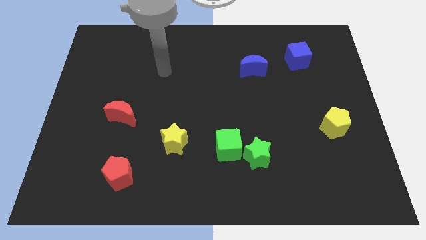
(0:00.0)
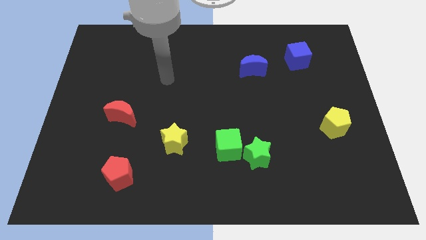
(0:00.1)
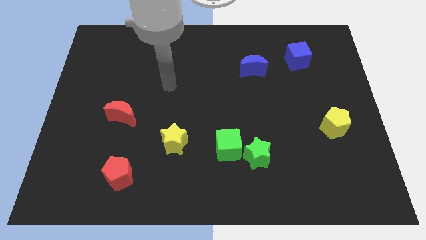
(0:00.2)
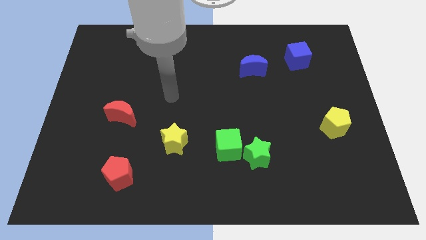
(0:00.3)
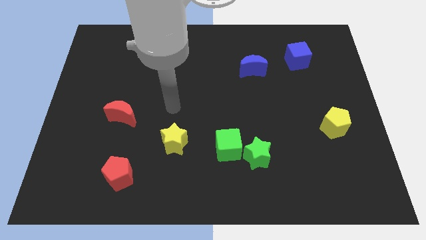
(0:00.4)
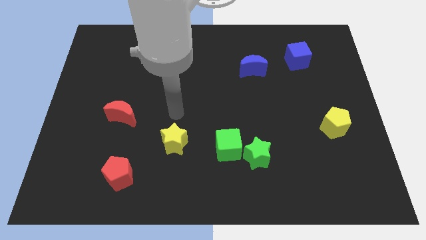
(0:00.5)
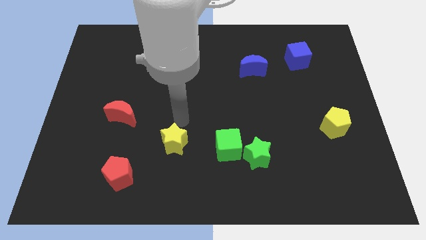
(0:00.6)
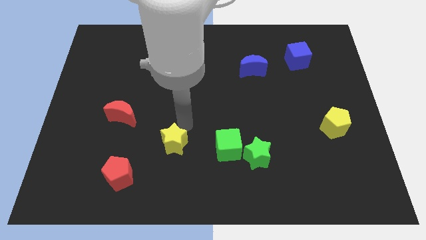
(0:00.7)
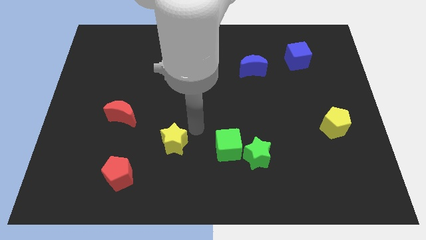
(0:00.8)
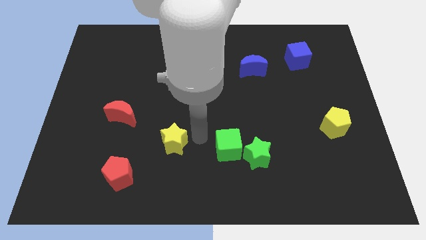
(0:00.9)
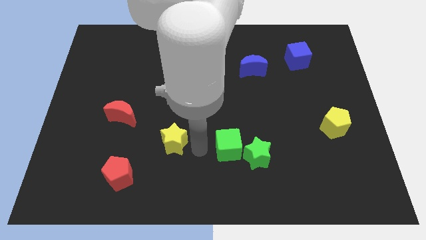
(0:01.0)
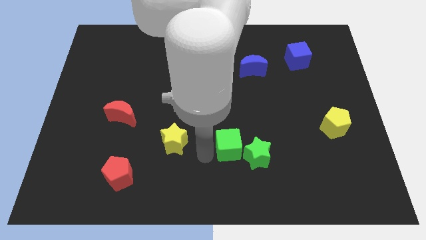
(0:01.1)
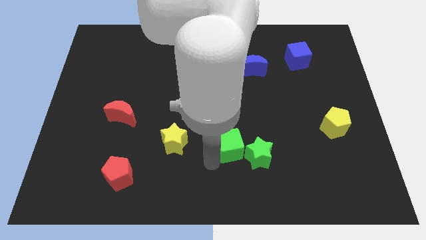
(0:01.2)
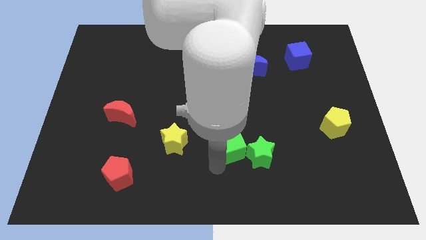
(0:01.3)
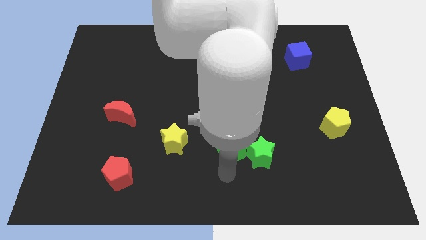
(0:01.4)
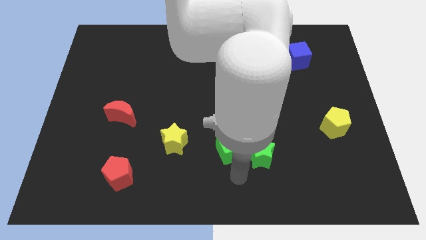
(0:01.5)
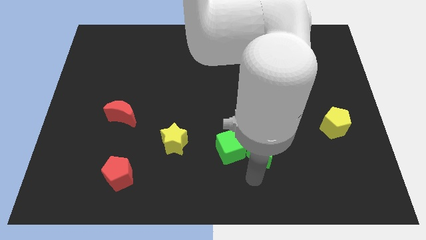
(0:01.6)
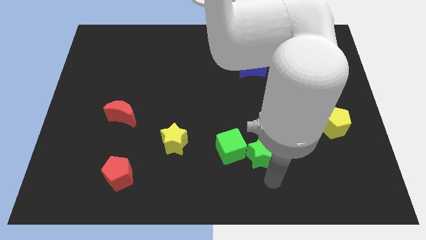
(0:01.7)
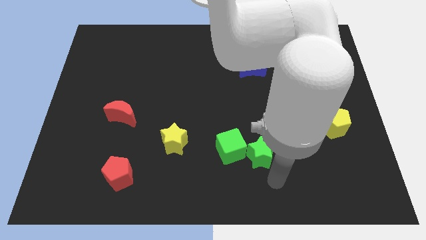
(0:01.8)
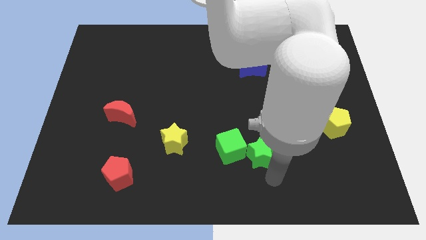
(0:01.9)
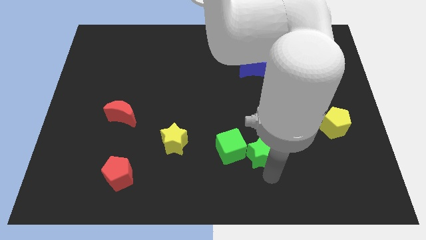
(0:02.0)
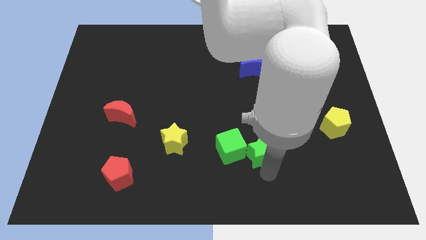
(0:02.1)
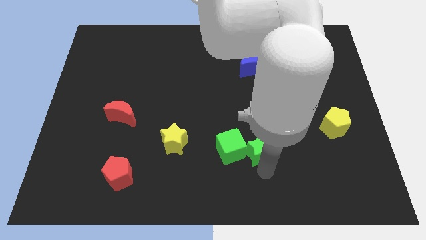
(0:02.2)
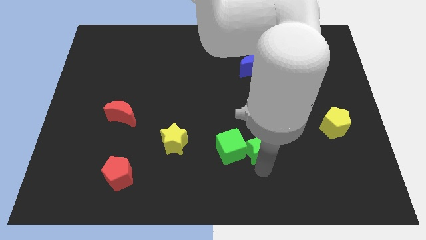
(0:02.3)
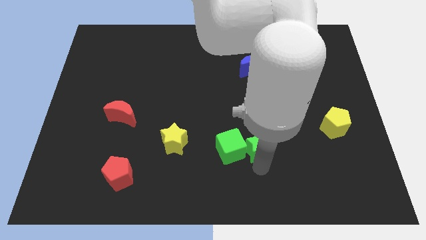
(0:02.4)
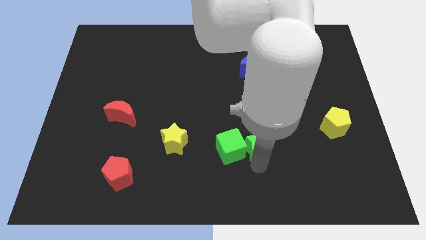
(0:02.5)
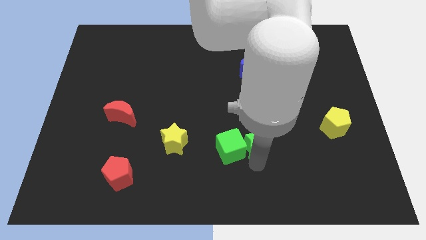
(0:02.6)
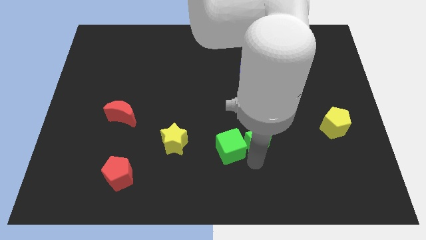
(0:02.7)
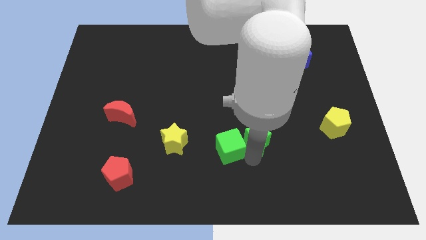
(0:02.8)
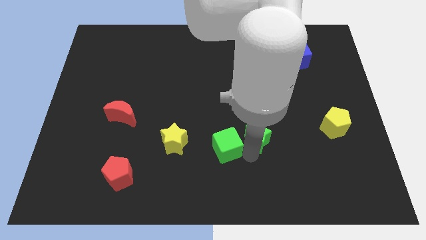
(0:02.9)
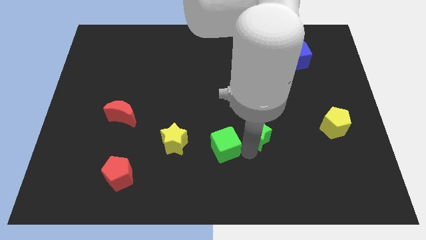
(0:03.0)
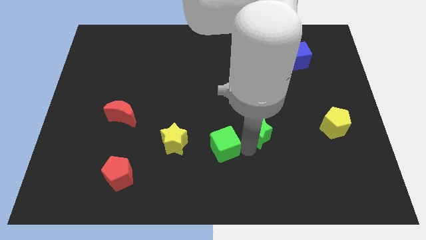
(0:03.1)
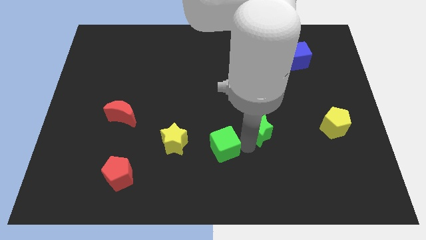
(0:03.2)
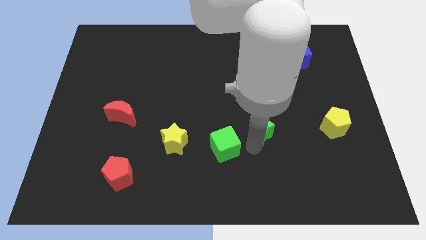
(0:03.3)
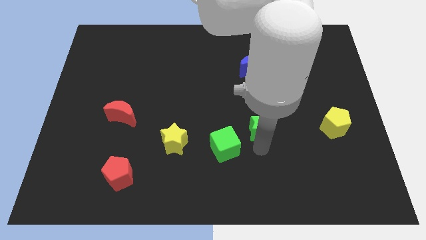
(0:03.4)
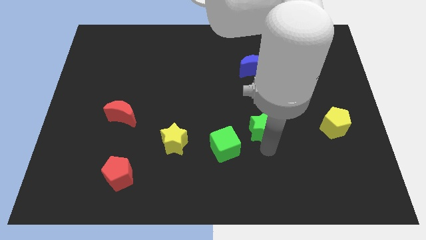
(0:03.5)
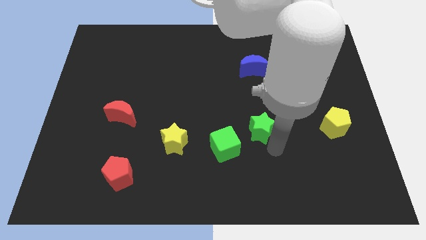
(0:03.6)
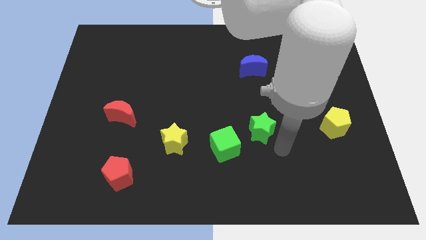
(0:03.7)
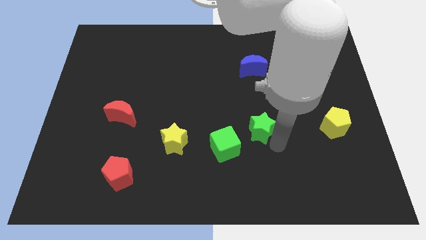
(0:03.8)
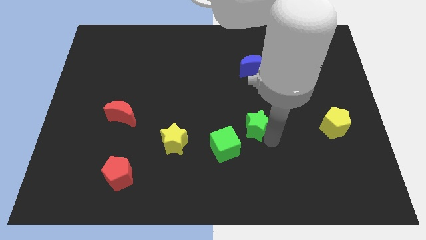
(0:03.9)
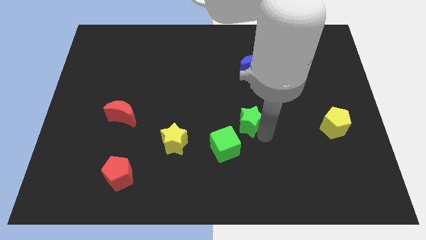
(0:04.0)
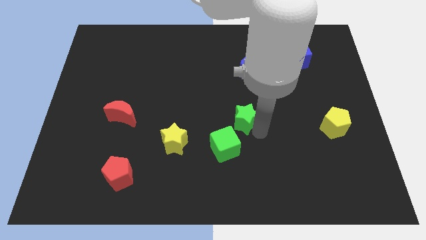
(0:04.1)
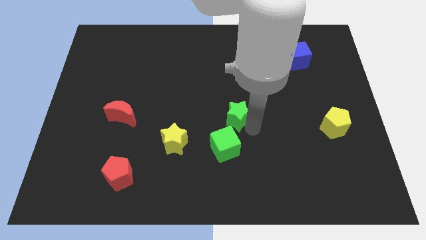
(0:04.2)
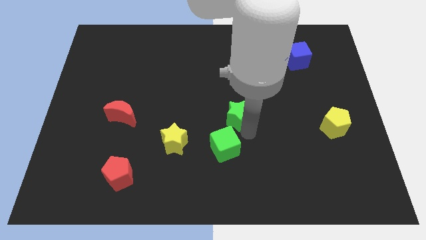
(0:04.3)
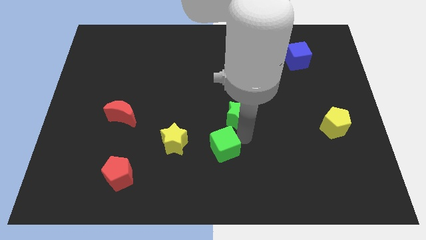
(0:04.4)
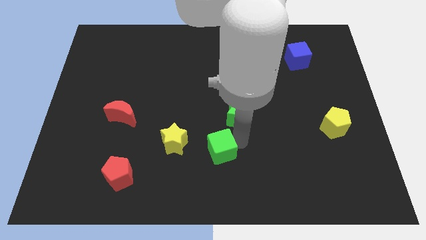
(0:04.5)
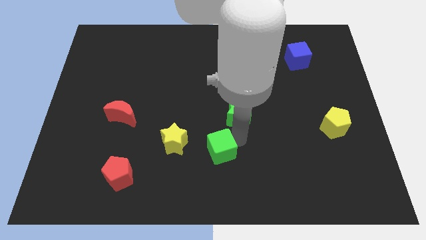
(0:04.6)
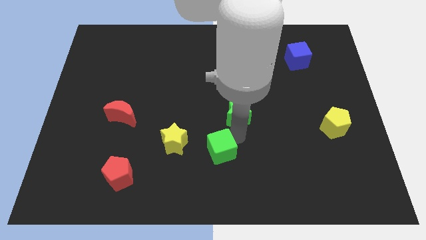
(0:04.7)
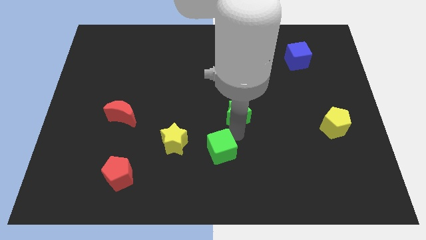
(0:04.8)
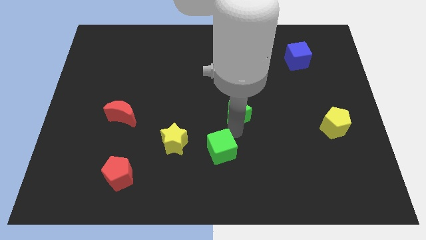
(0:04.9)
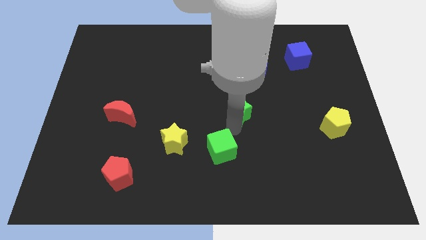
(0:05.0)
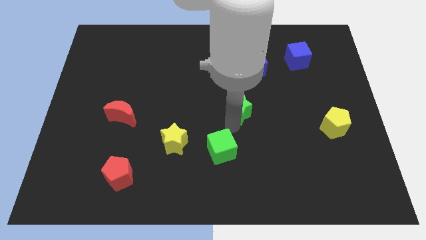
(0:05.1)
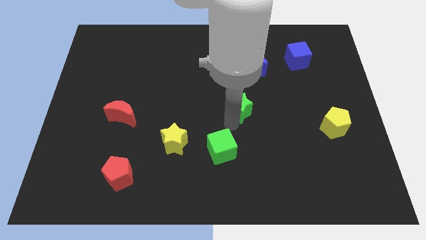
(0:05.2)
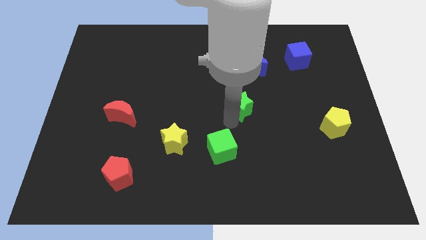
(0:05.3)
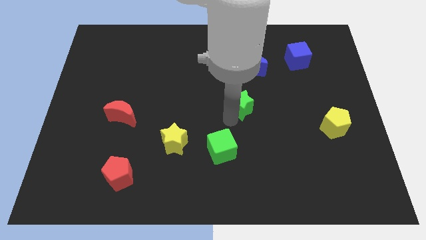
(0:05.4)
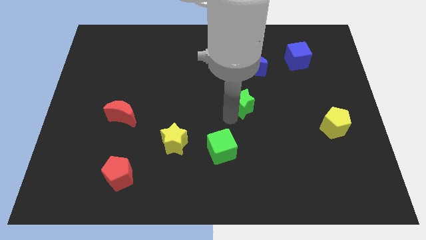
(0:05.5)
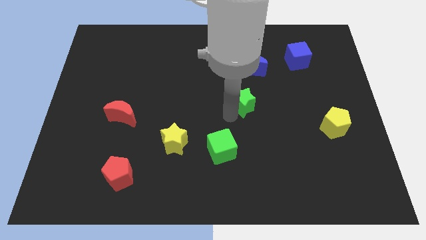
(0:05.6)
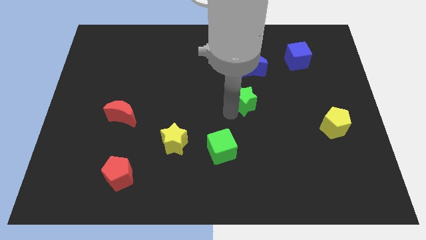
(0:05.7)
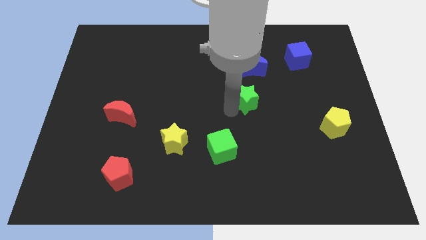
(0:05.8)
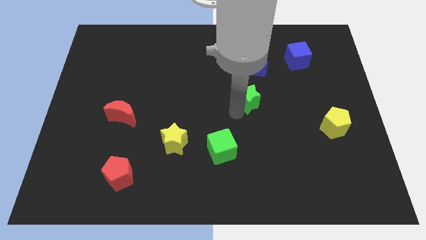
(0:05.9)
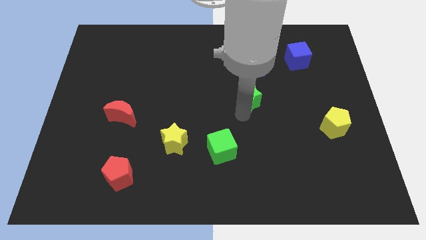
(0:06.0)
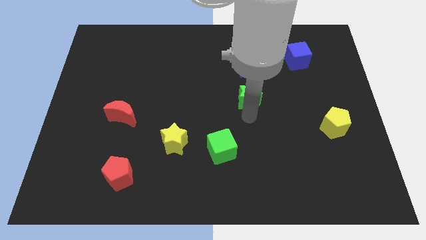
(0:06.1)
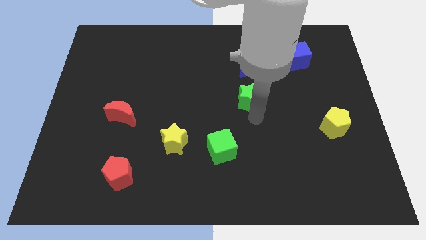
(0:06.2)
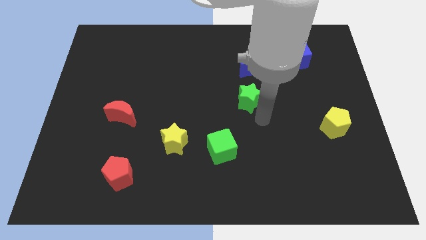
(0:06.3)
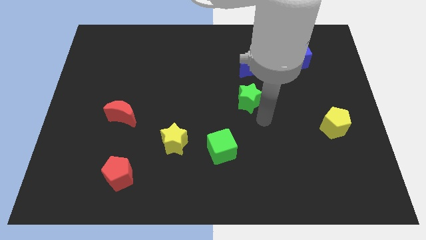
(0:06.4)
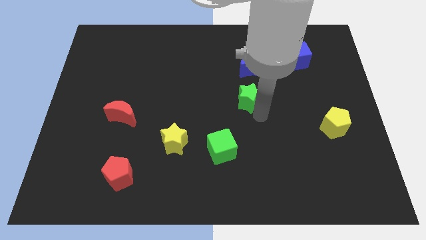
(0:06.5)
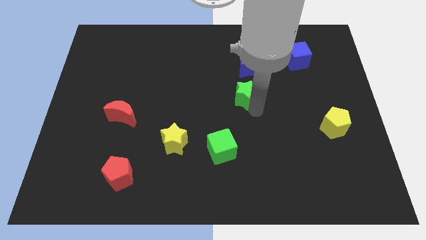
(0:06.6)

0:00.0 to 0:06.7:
move the green star diagonally down and to the left of the blue moon

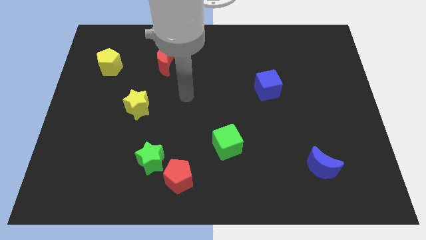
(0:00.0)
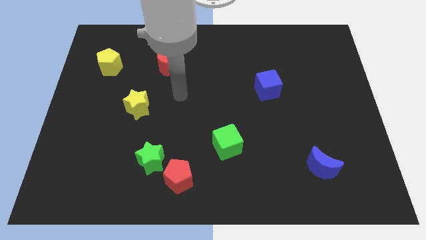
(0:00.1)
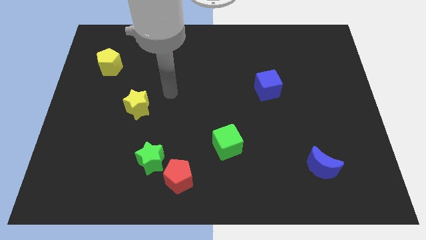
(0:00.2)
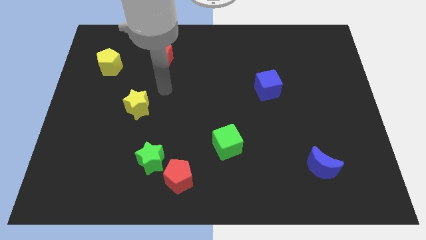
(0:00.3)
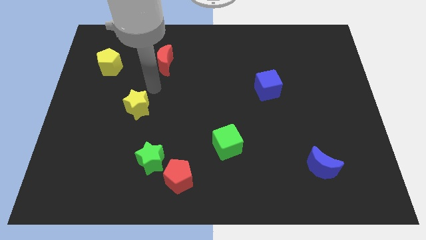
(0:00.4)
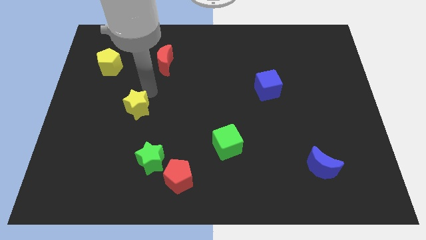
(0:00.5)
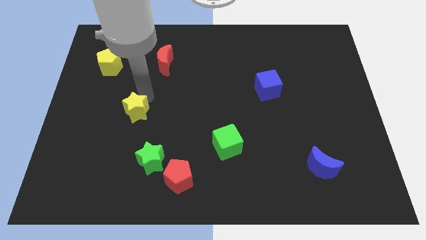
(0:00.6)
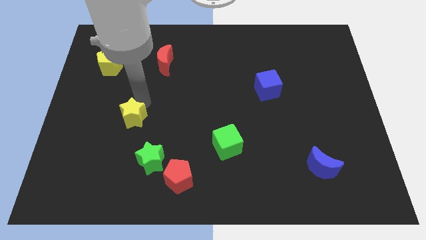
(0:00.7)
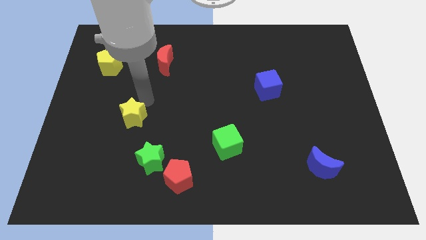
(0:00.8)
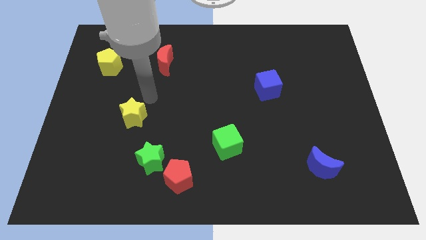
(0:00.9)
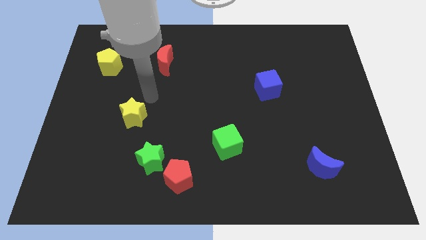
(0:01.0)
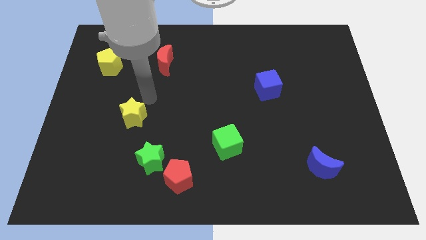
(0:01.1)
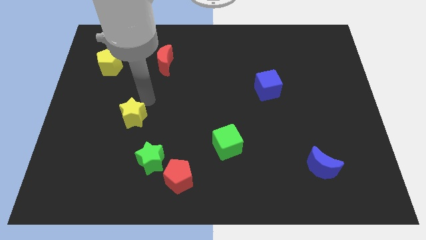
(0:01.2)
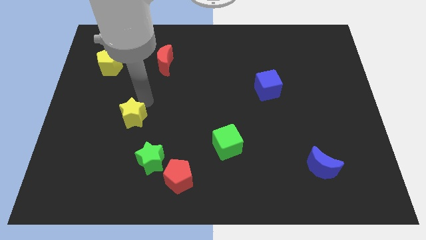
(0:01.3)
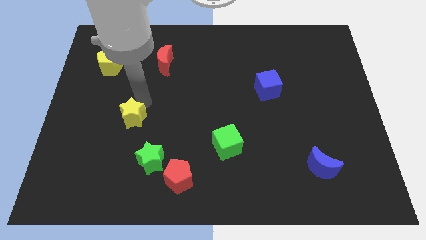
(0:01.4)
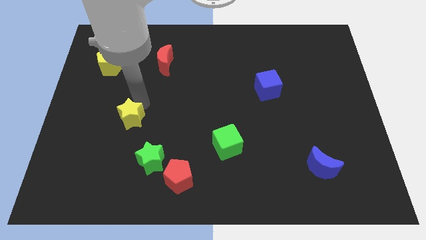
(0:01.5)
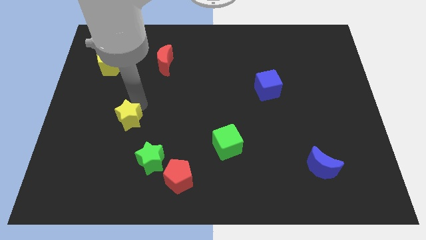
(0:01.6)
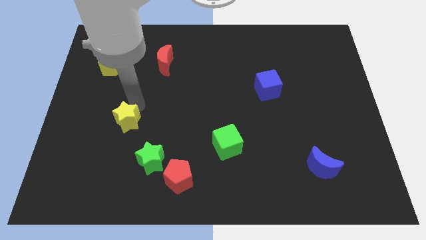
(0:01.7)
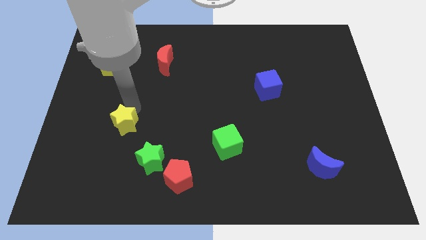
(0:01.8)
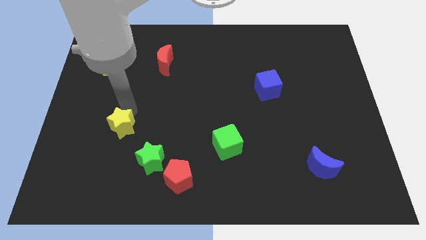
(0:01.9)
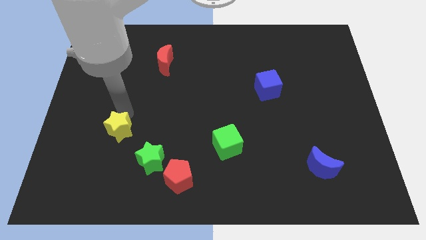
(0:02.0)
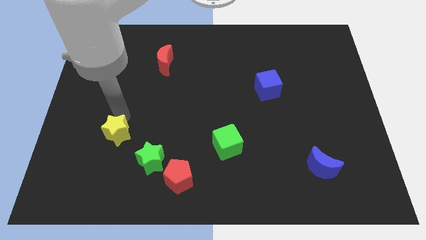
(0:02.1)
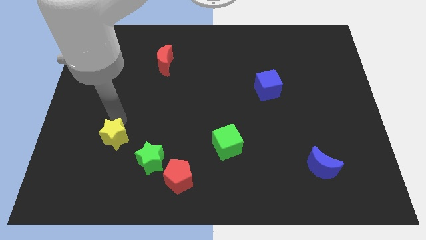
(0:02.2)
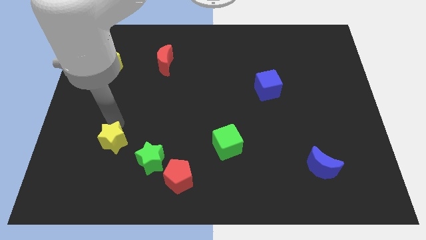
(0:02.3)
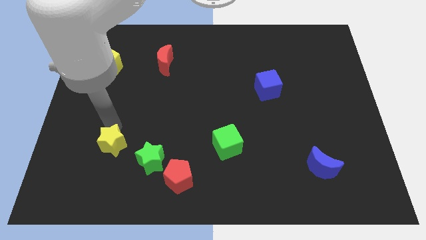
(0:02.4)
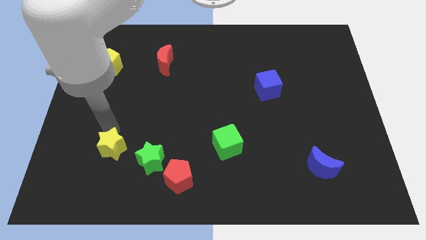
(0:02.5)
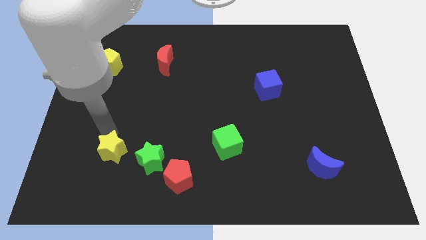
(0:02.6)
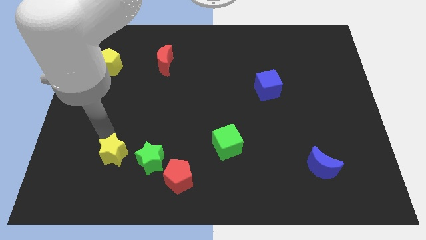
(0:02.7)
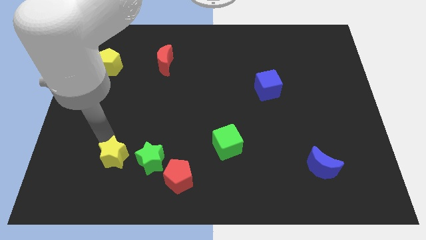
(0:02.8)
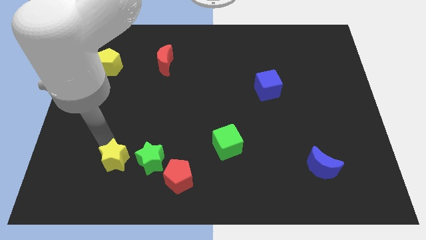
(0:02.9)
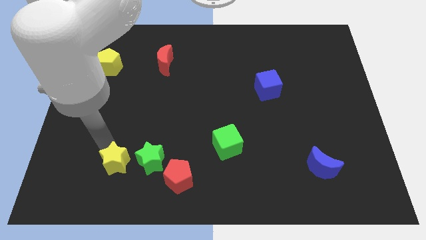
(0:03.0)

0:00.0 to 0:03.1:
push the yellow star left of the red pentagon
